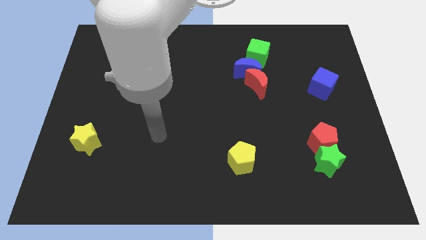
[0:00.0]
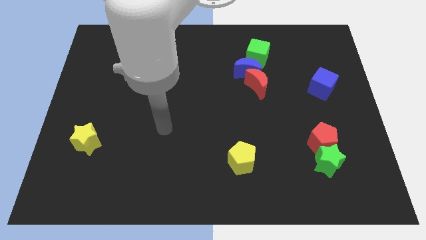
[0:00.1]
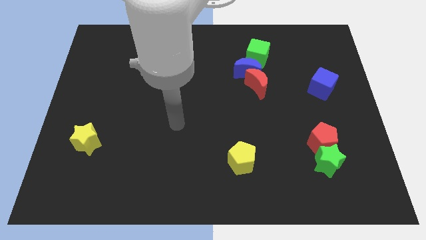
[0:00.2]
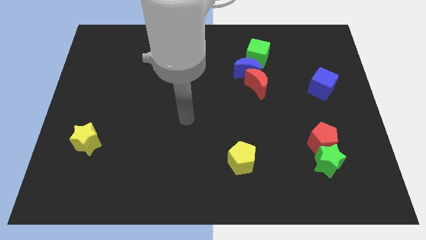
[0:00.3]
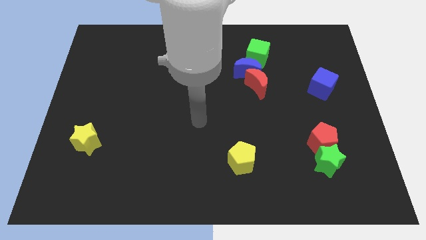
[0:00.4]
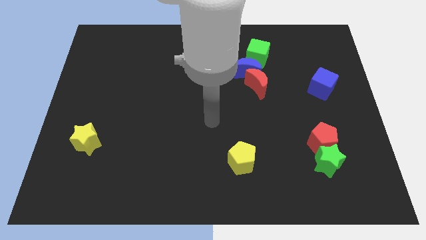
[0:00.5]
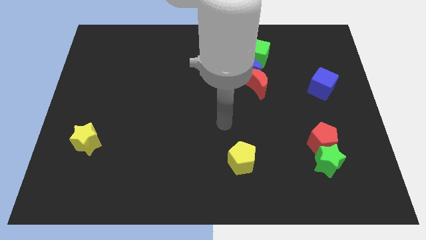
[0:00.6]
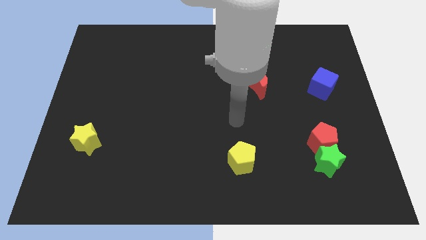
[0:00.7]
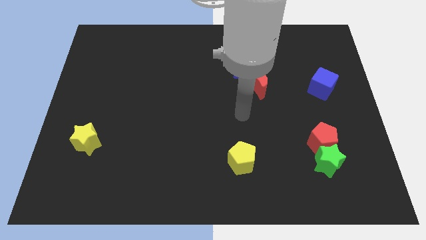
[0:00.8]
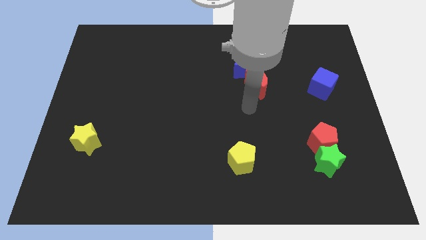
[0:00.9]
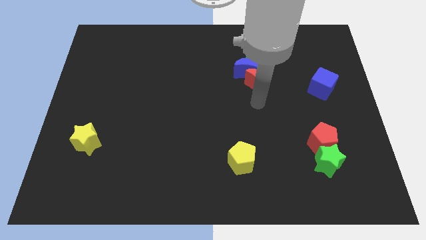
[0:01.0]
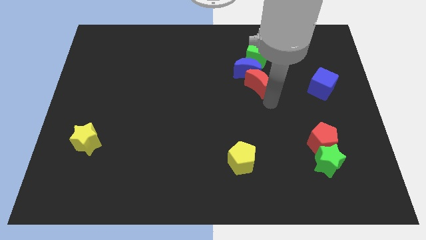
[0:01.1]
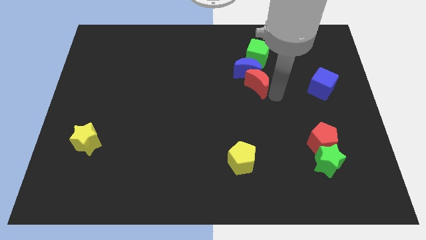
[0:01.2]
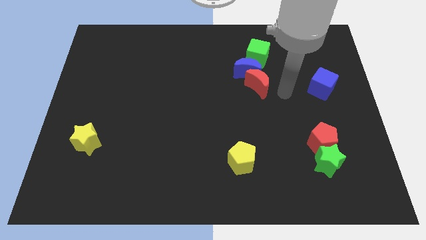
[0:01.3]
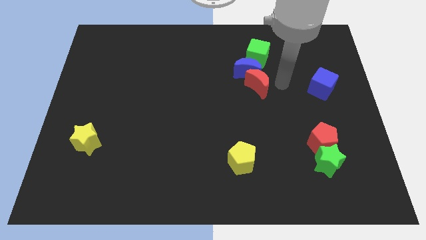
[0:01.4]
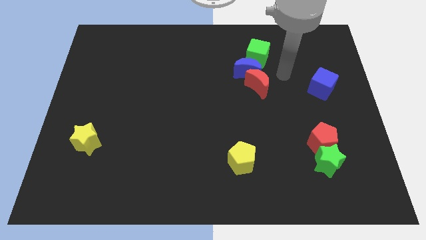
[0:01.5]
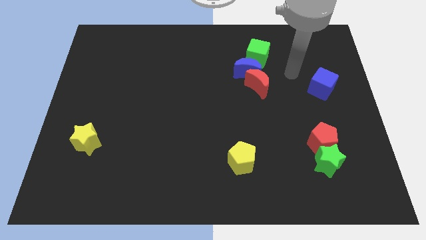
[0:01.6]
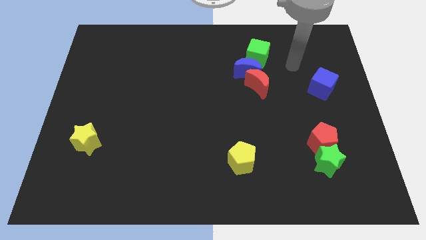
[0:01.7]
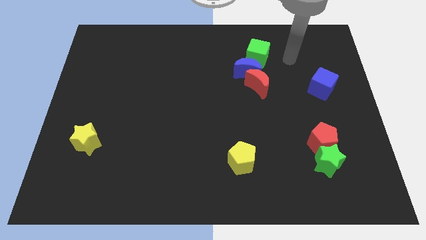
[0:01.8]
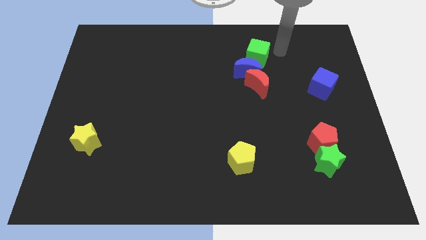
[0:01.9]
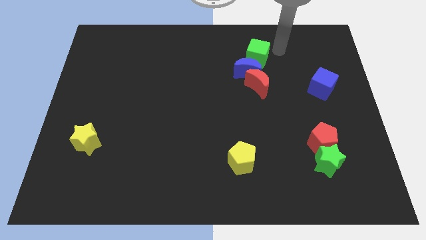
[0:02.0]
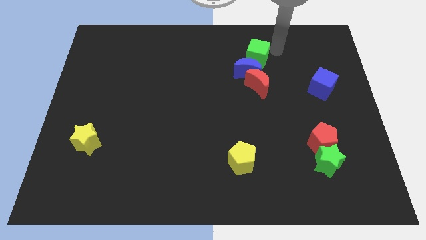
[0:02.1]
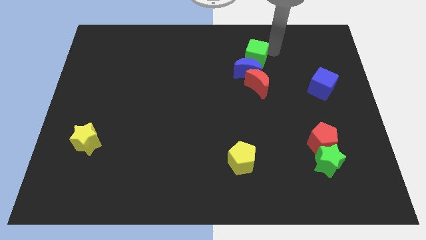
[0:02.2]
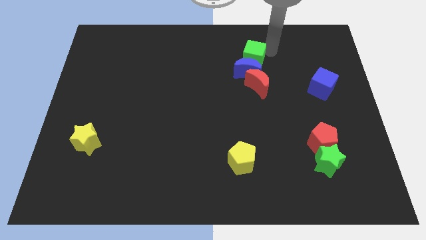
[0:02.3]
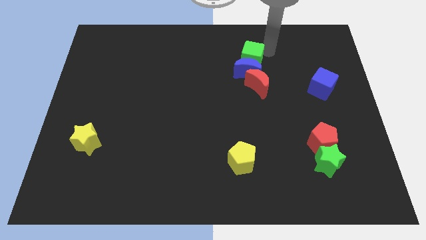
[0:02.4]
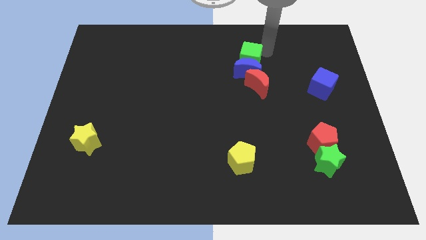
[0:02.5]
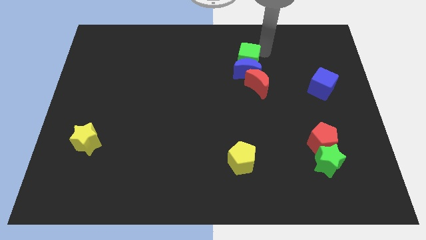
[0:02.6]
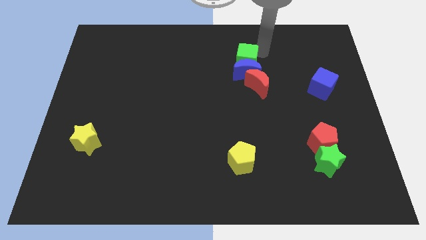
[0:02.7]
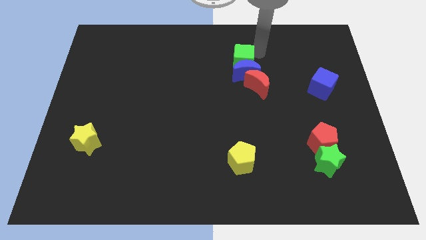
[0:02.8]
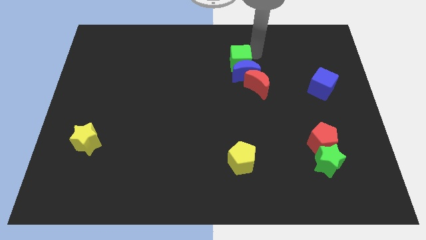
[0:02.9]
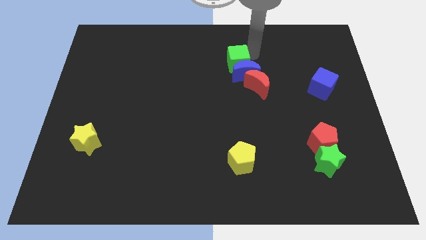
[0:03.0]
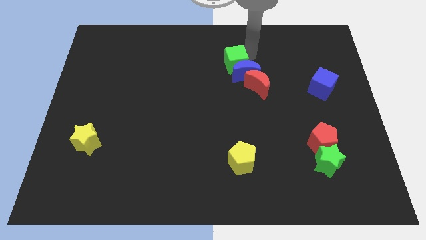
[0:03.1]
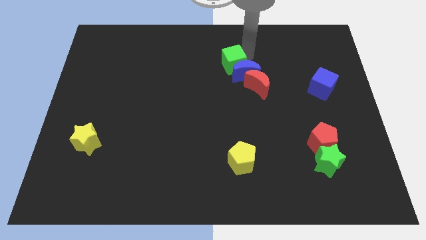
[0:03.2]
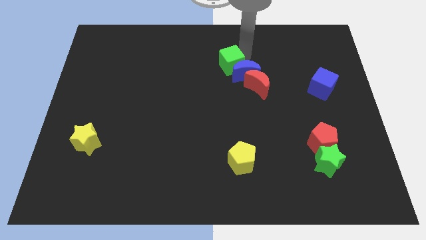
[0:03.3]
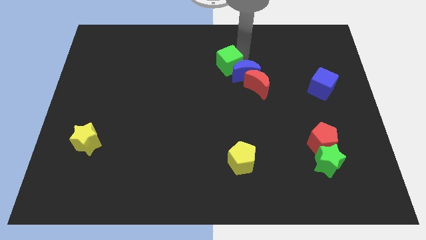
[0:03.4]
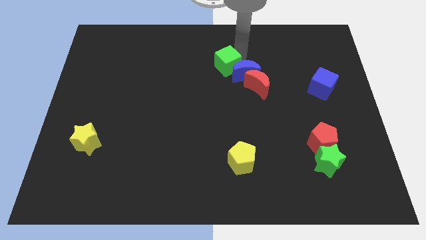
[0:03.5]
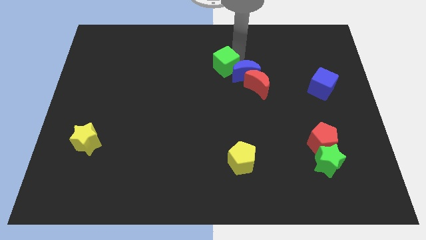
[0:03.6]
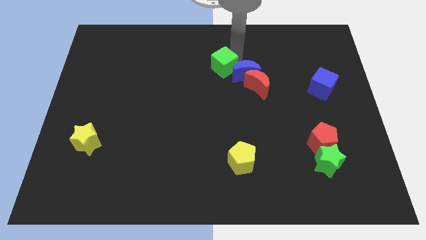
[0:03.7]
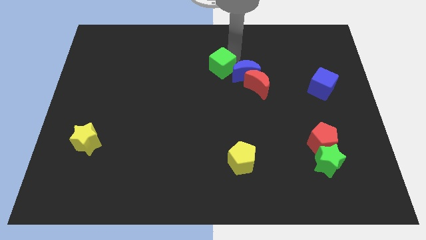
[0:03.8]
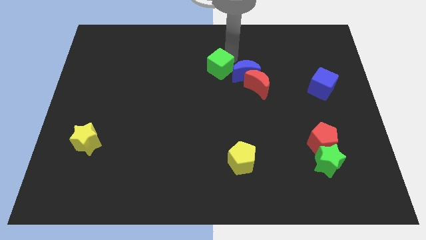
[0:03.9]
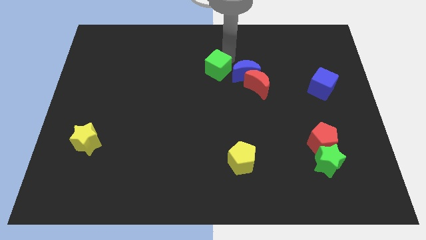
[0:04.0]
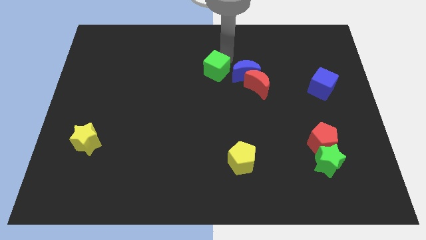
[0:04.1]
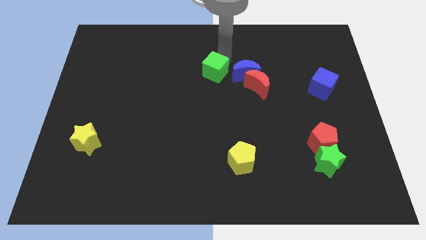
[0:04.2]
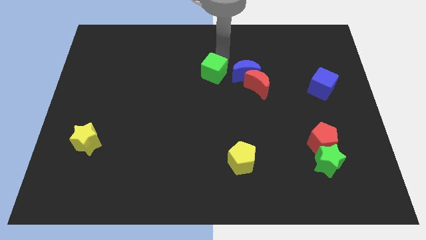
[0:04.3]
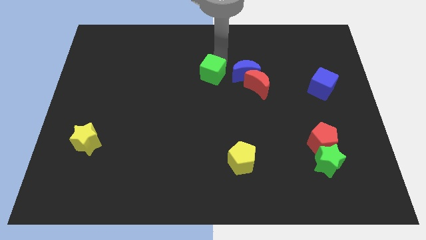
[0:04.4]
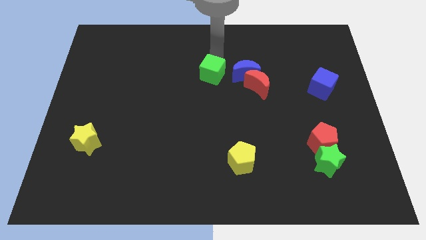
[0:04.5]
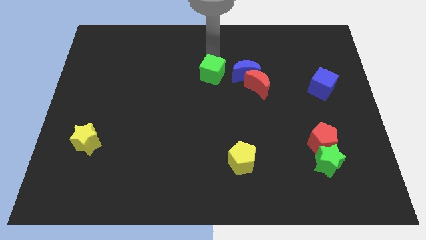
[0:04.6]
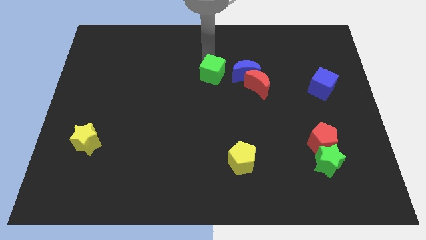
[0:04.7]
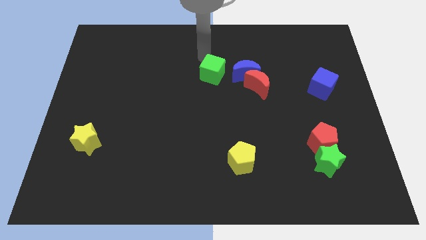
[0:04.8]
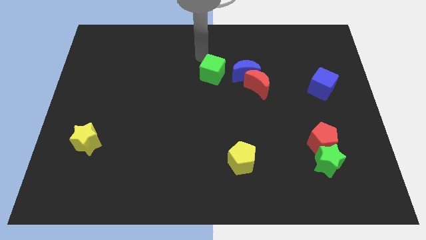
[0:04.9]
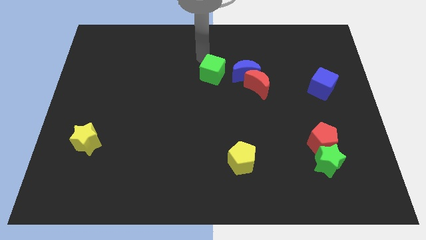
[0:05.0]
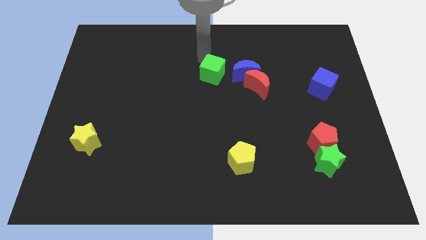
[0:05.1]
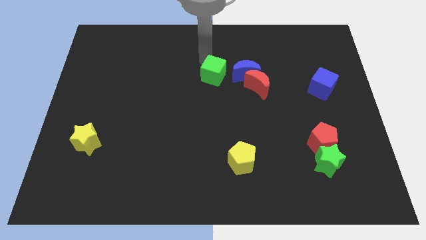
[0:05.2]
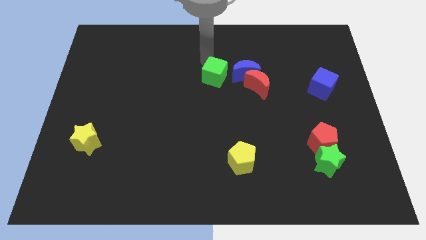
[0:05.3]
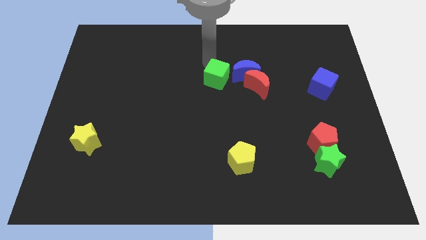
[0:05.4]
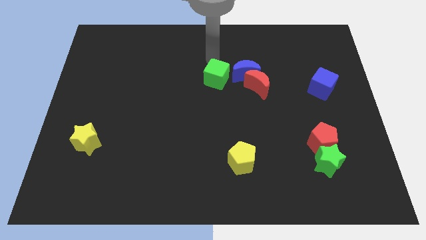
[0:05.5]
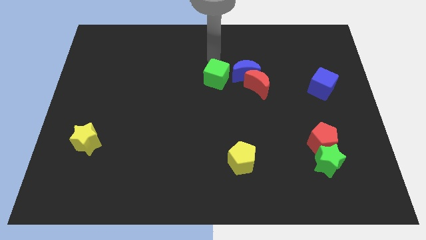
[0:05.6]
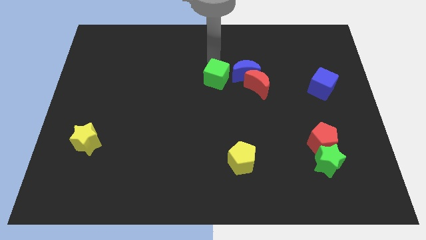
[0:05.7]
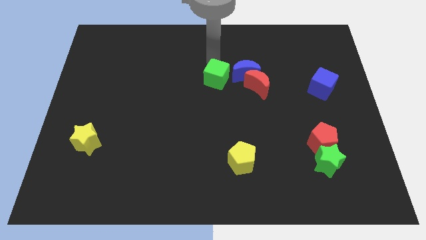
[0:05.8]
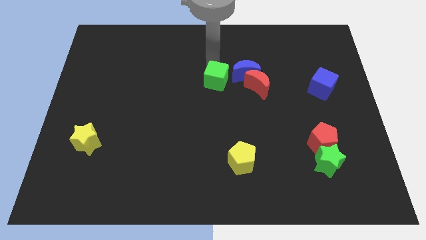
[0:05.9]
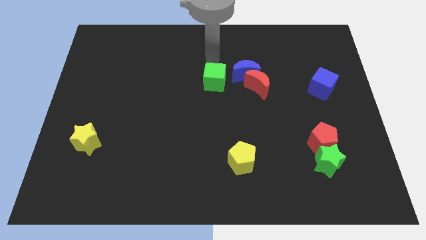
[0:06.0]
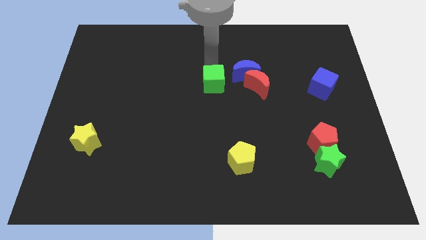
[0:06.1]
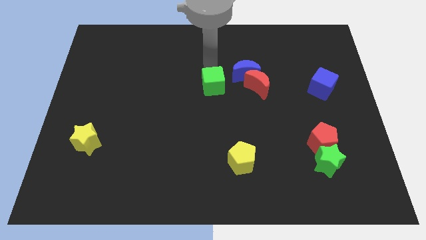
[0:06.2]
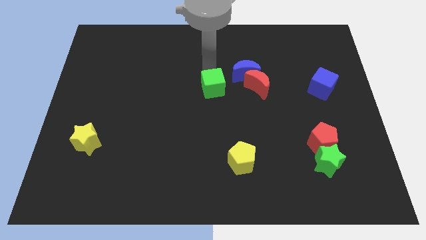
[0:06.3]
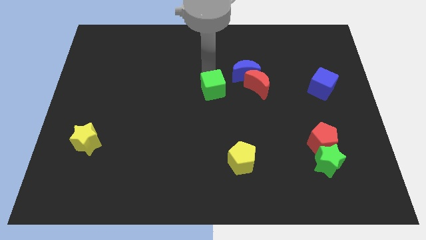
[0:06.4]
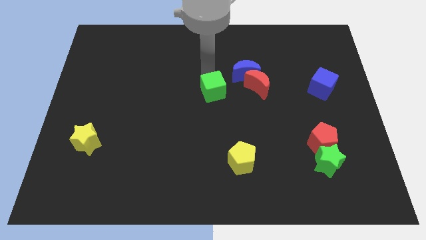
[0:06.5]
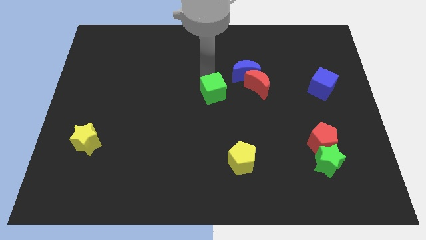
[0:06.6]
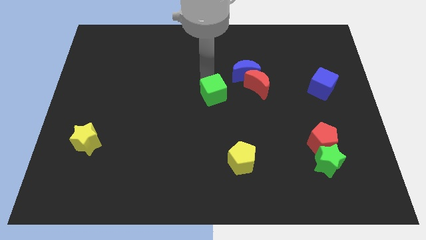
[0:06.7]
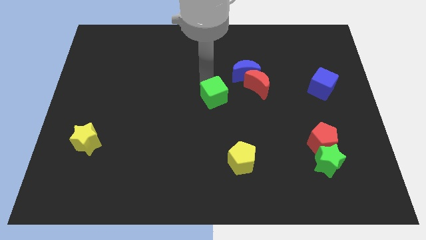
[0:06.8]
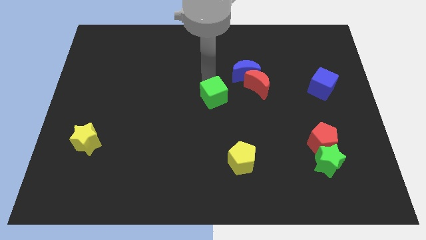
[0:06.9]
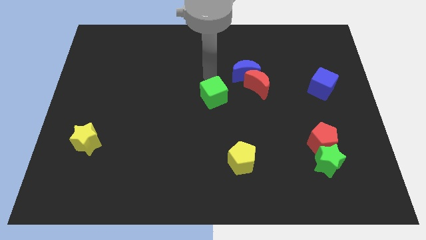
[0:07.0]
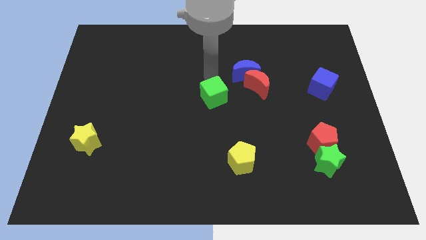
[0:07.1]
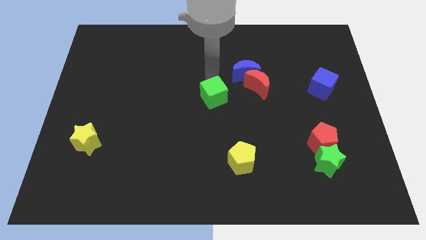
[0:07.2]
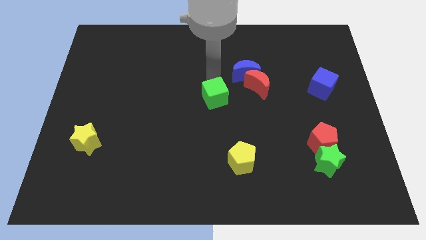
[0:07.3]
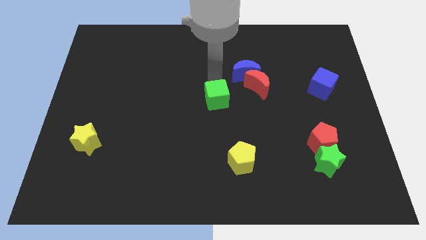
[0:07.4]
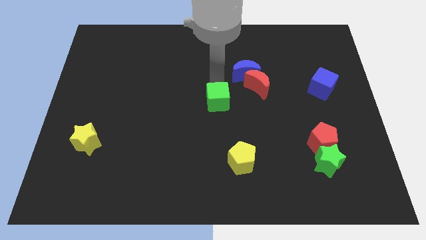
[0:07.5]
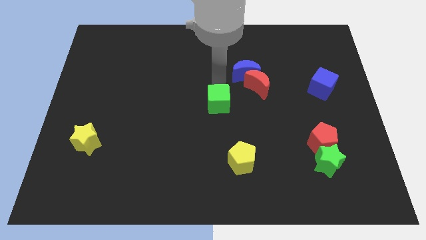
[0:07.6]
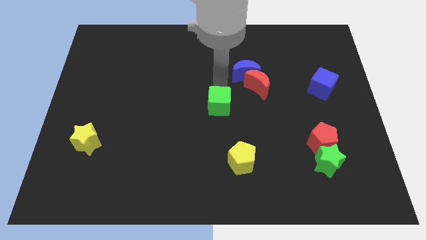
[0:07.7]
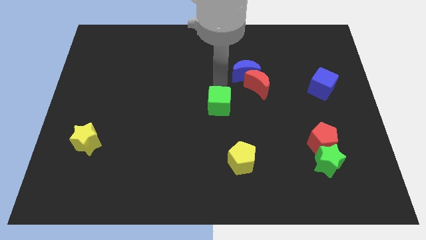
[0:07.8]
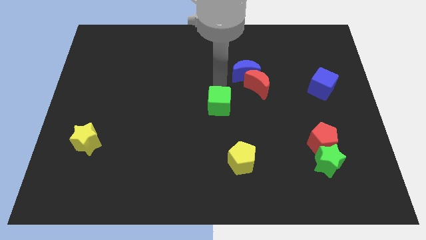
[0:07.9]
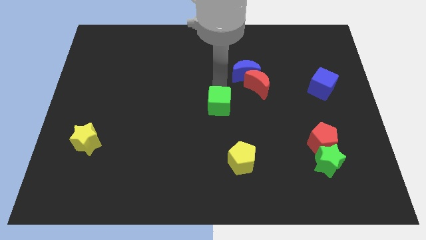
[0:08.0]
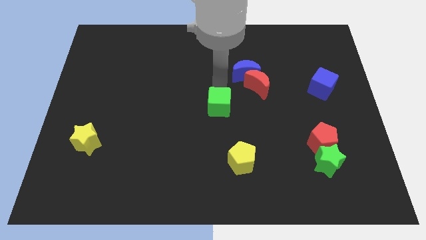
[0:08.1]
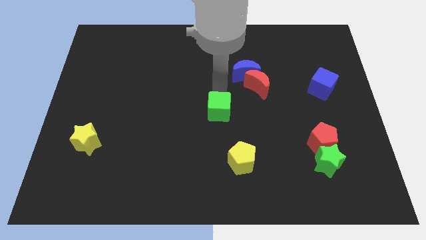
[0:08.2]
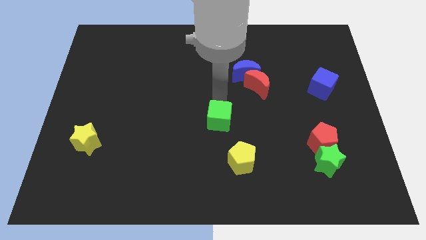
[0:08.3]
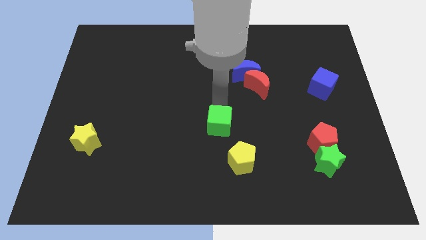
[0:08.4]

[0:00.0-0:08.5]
slide the green cube to the top left of the yellow pentagon
